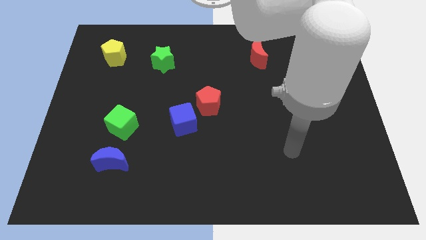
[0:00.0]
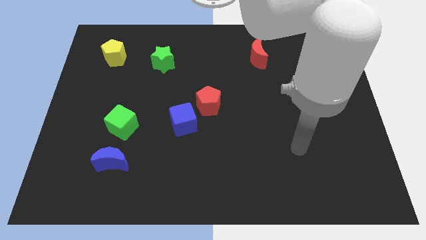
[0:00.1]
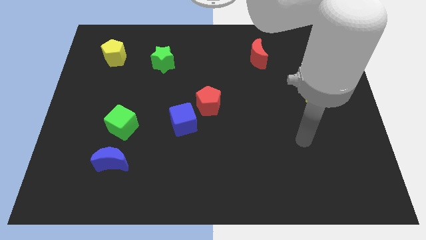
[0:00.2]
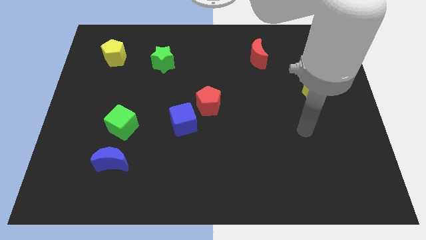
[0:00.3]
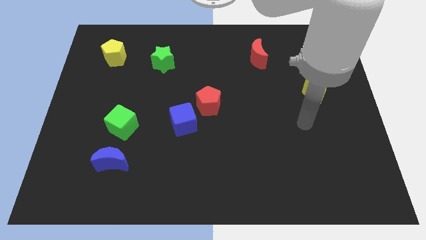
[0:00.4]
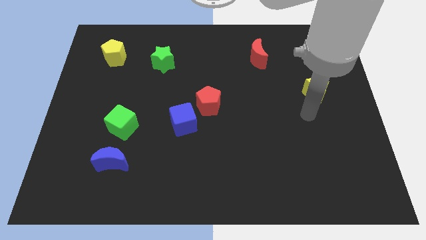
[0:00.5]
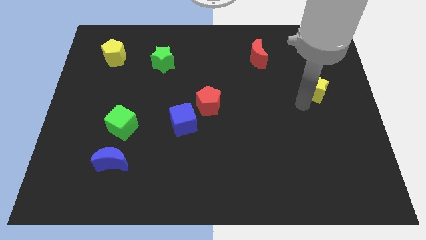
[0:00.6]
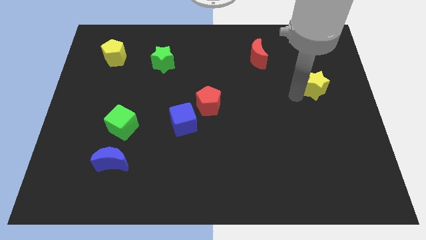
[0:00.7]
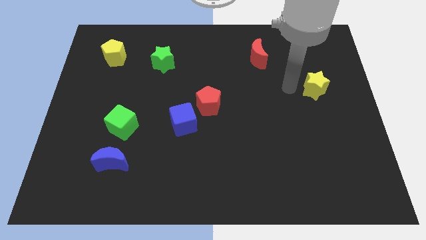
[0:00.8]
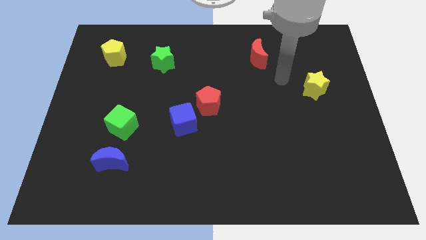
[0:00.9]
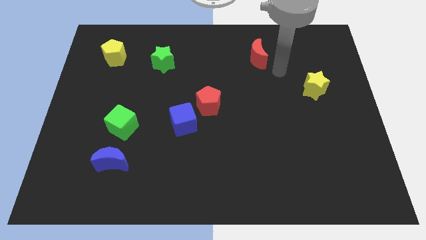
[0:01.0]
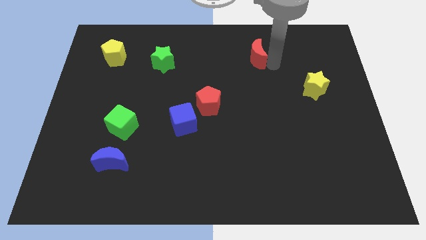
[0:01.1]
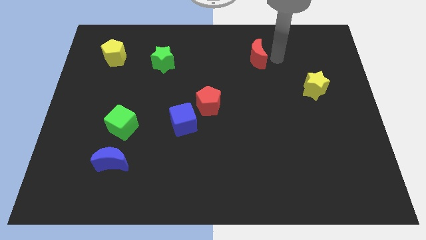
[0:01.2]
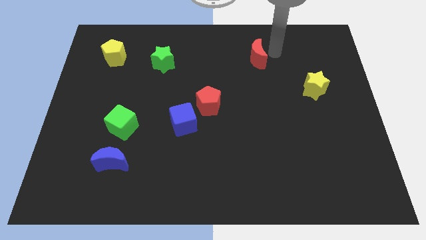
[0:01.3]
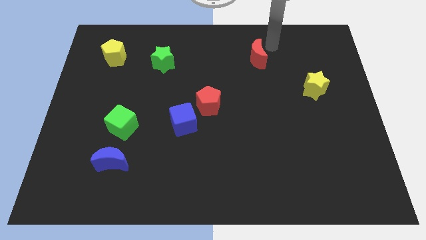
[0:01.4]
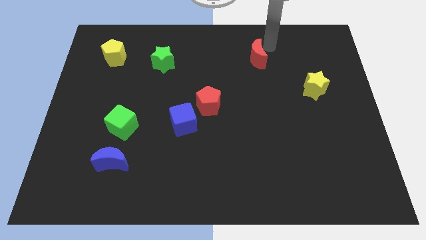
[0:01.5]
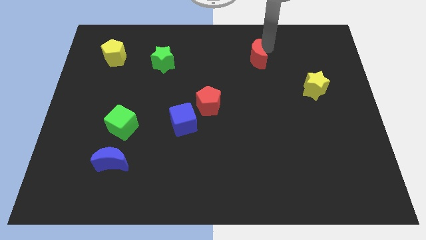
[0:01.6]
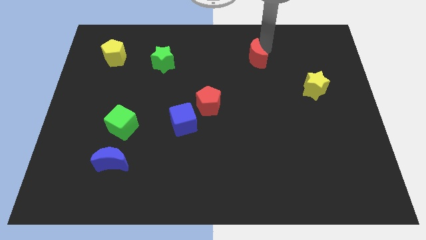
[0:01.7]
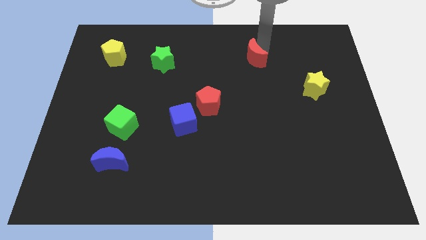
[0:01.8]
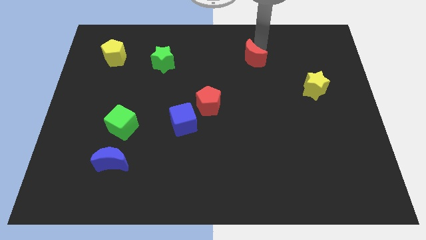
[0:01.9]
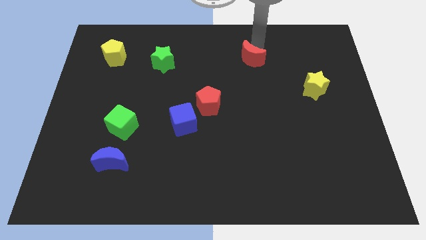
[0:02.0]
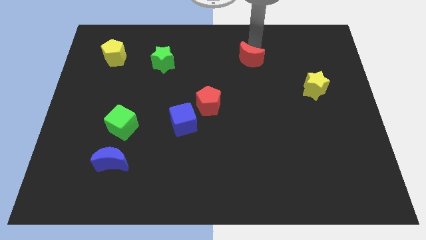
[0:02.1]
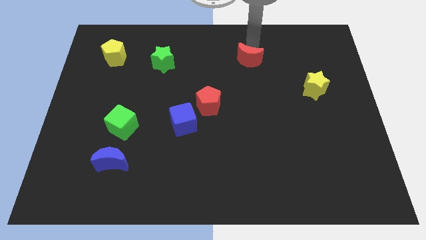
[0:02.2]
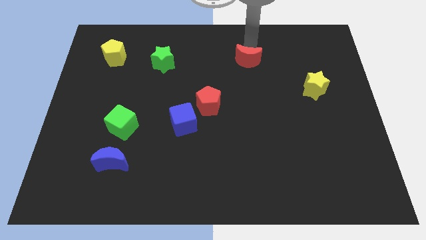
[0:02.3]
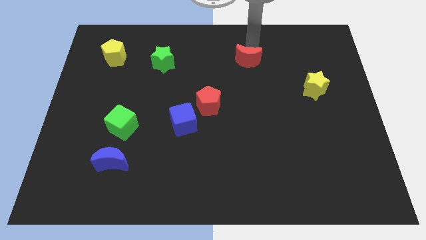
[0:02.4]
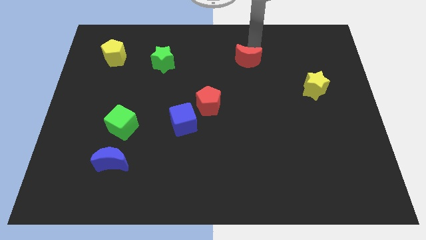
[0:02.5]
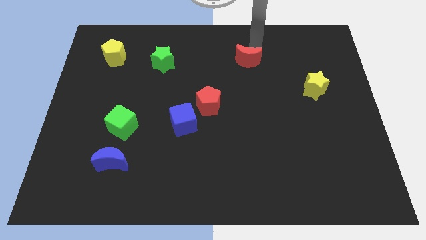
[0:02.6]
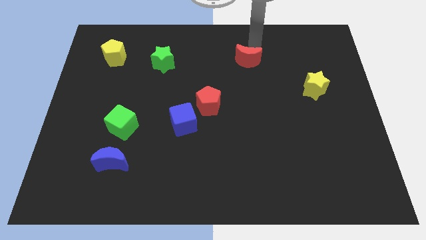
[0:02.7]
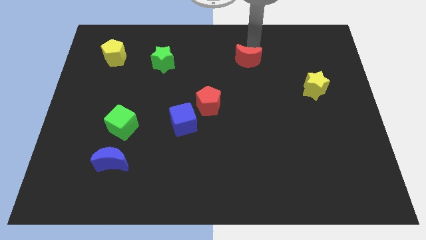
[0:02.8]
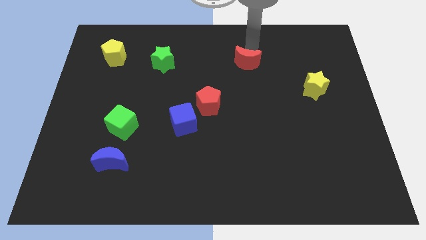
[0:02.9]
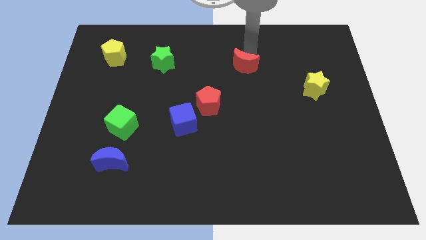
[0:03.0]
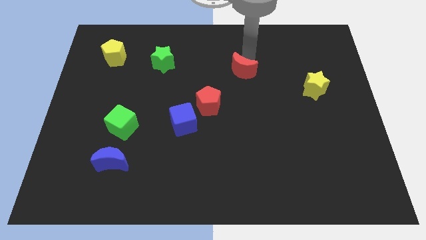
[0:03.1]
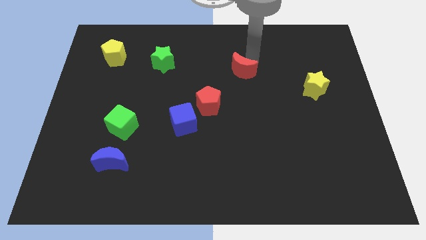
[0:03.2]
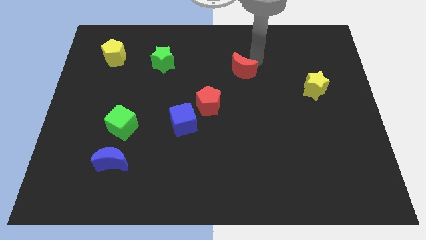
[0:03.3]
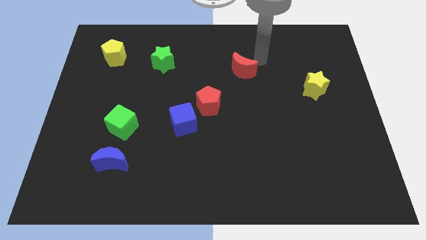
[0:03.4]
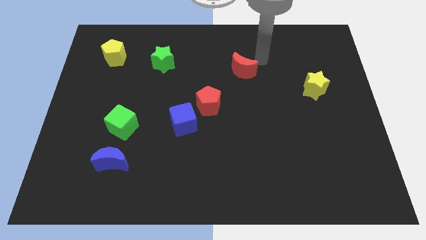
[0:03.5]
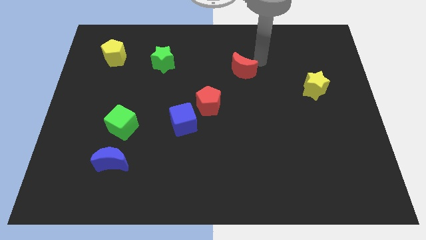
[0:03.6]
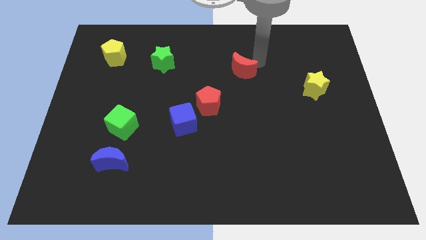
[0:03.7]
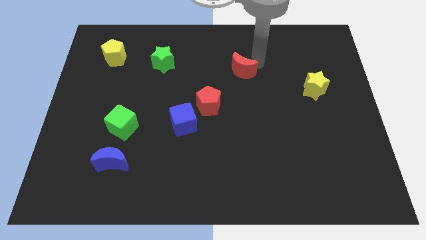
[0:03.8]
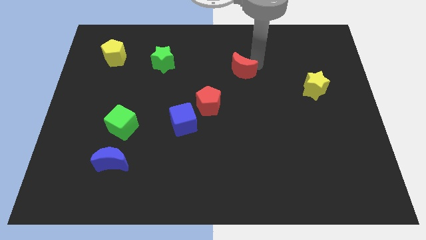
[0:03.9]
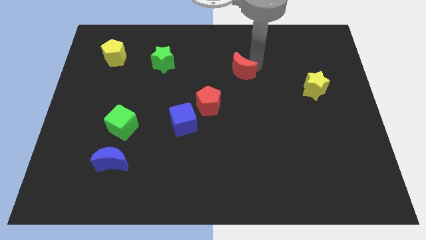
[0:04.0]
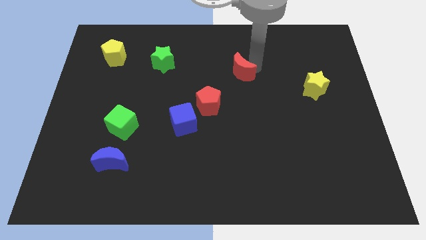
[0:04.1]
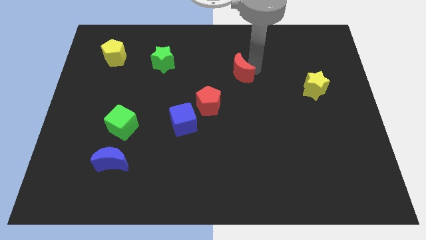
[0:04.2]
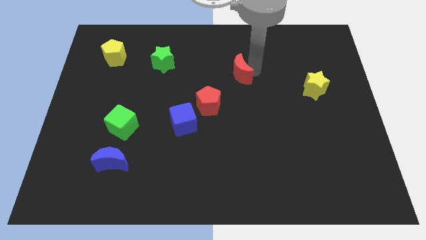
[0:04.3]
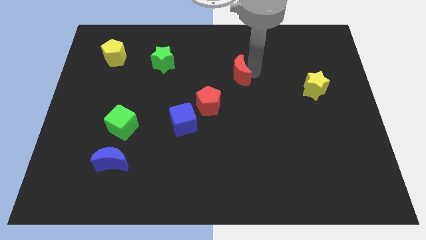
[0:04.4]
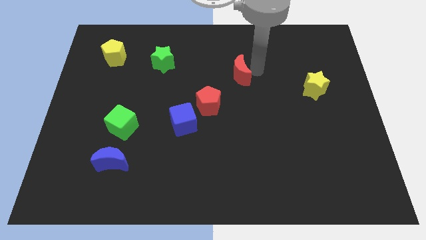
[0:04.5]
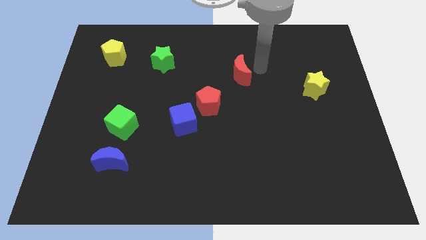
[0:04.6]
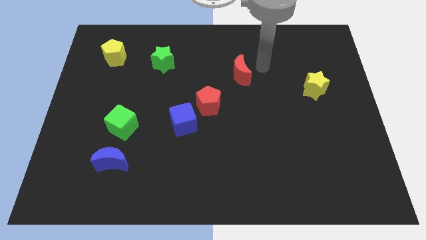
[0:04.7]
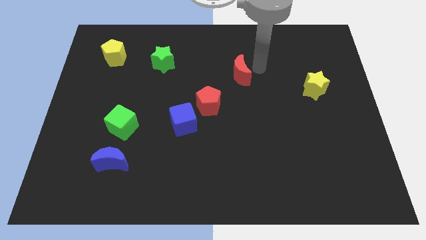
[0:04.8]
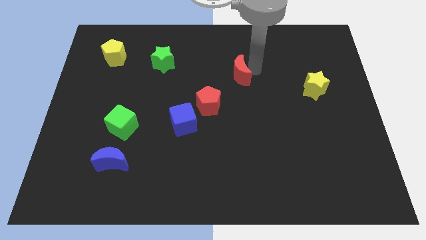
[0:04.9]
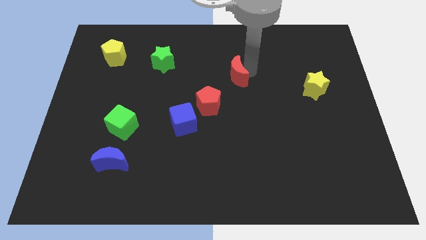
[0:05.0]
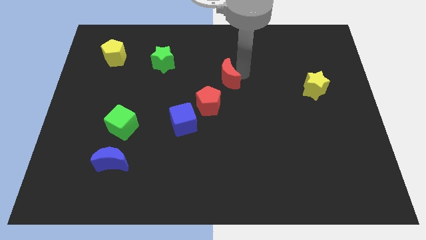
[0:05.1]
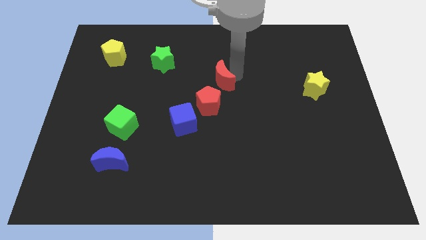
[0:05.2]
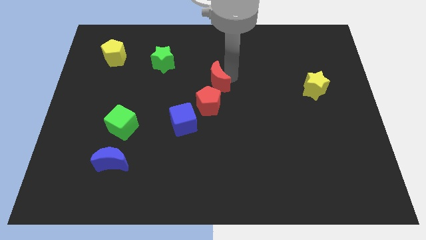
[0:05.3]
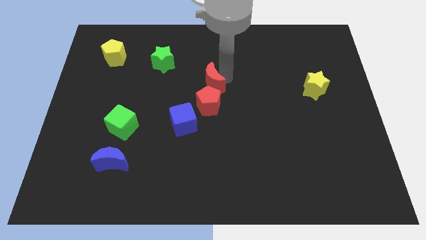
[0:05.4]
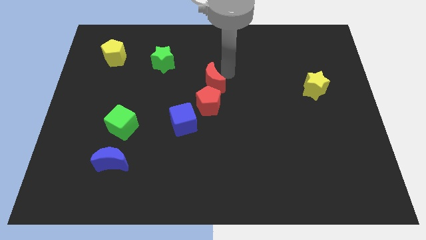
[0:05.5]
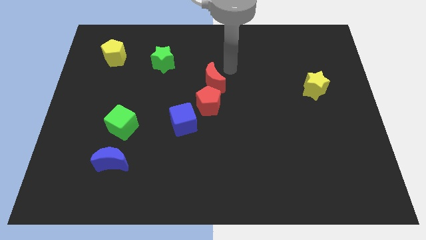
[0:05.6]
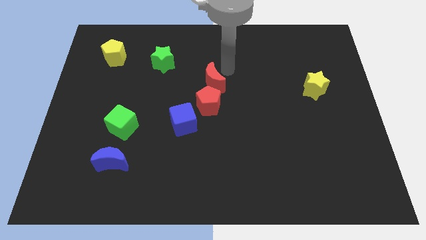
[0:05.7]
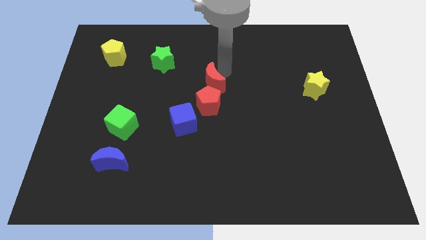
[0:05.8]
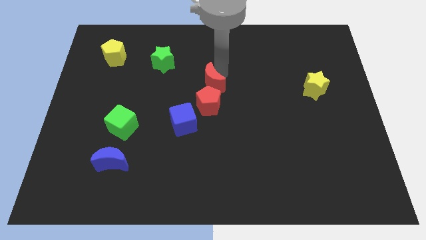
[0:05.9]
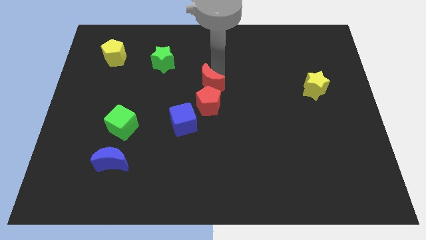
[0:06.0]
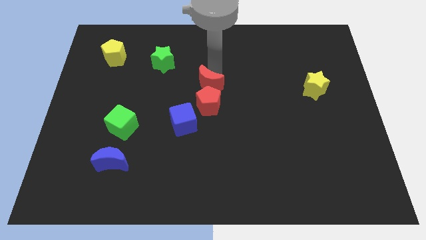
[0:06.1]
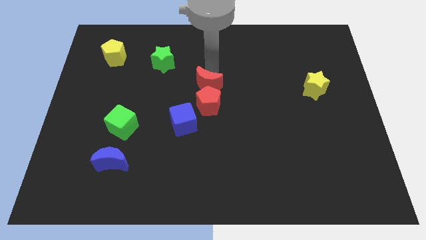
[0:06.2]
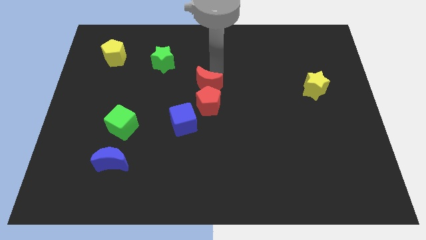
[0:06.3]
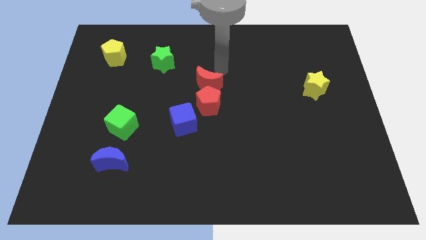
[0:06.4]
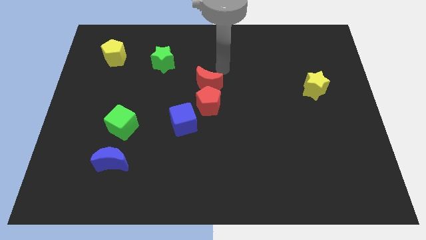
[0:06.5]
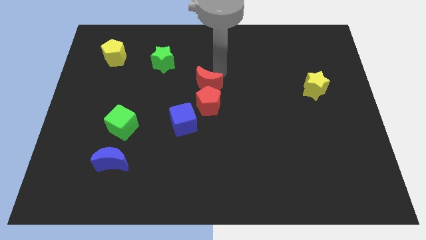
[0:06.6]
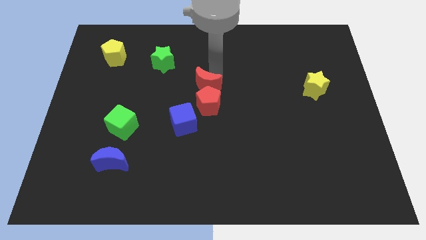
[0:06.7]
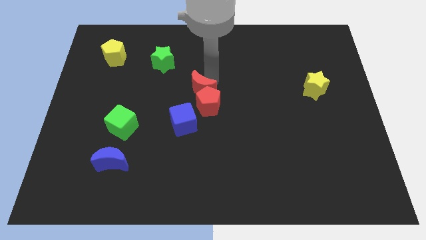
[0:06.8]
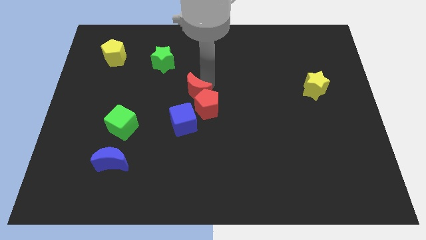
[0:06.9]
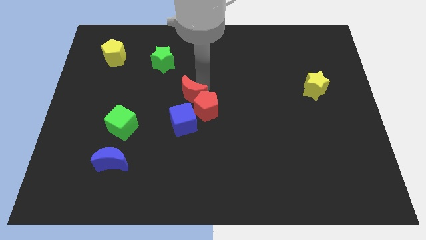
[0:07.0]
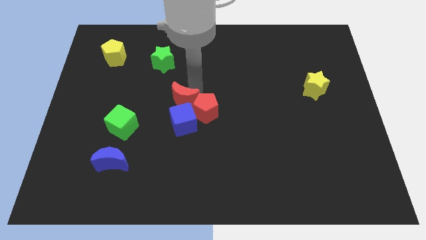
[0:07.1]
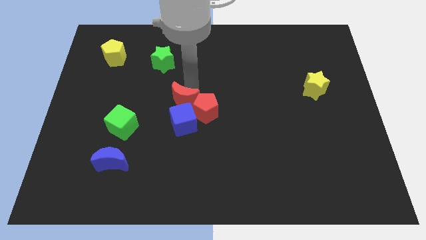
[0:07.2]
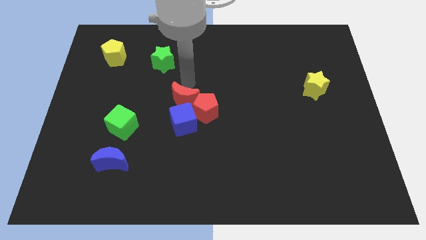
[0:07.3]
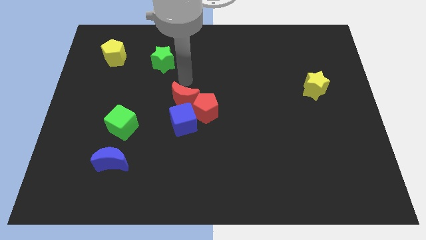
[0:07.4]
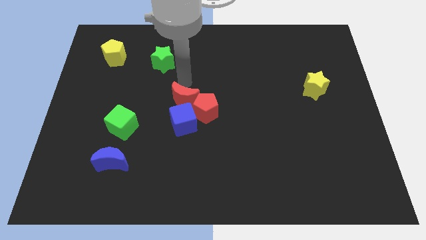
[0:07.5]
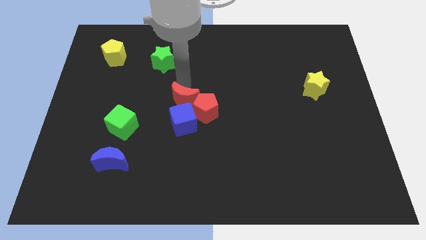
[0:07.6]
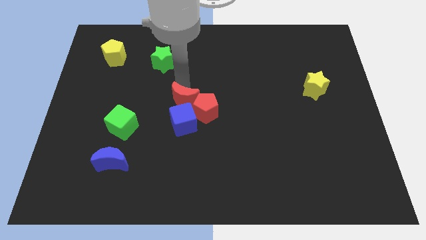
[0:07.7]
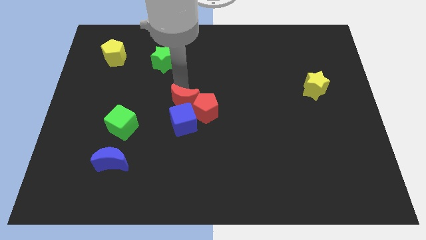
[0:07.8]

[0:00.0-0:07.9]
move the red moon close to the blue cube
